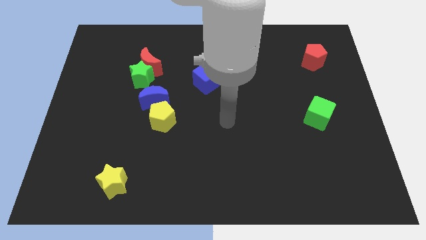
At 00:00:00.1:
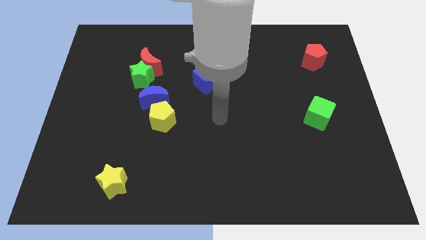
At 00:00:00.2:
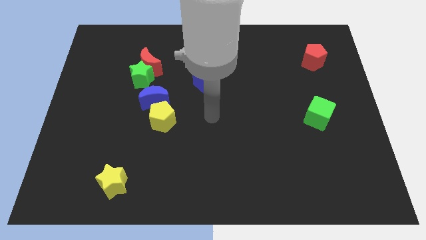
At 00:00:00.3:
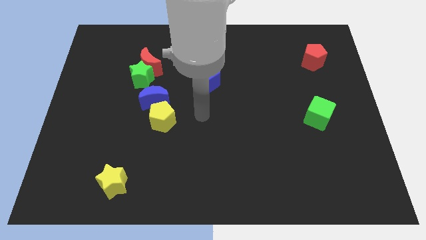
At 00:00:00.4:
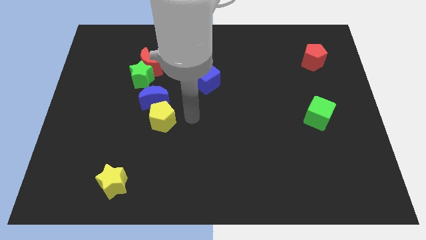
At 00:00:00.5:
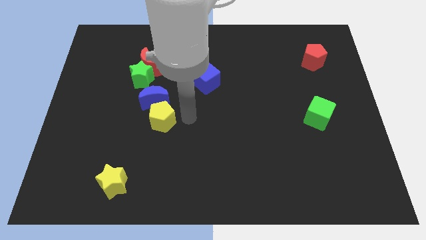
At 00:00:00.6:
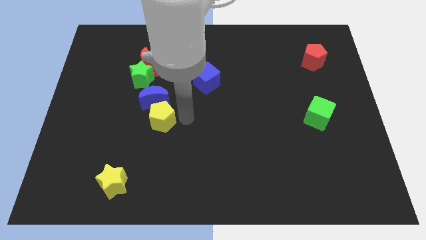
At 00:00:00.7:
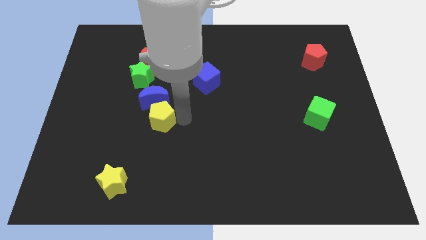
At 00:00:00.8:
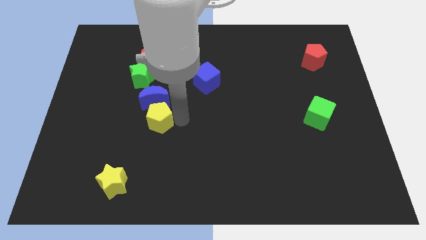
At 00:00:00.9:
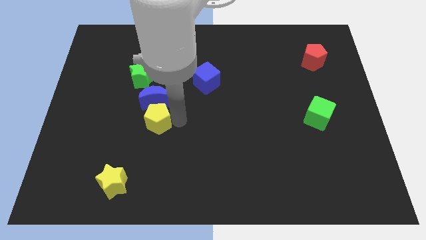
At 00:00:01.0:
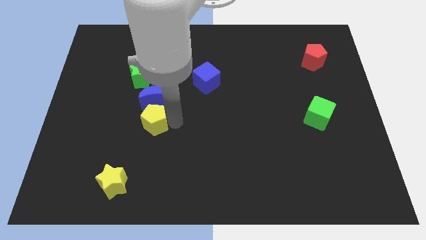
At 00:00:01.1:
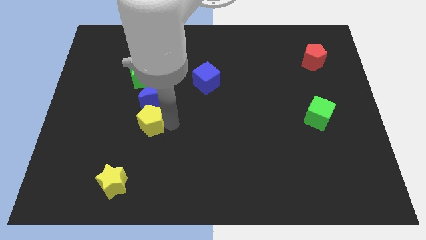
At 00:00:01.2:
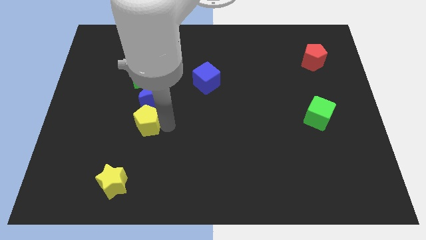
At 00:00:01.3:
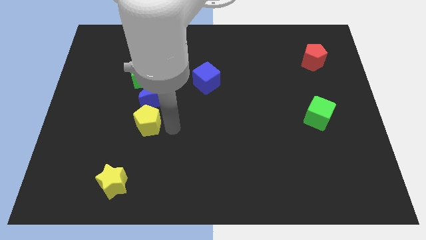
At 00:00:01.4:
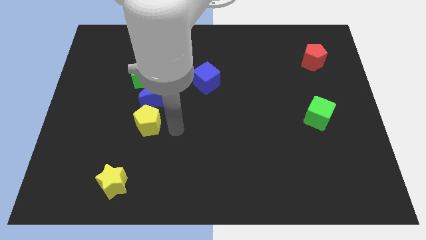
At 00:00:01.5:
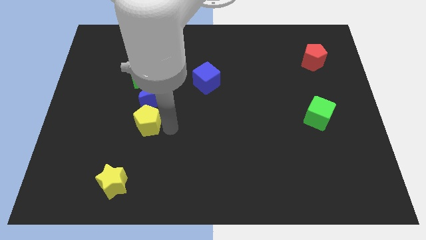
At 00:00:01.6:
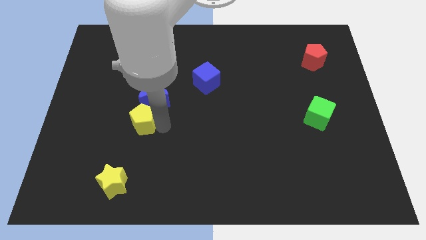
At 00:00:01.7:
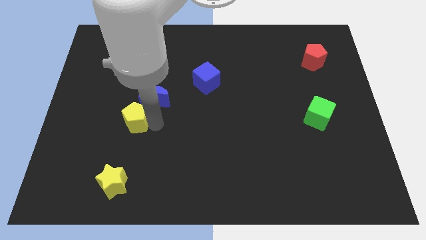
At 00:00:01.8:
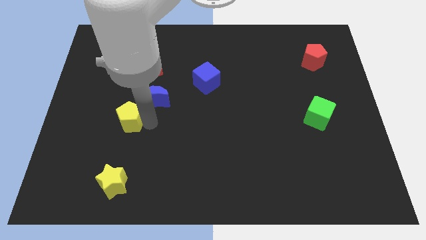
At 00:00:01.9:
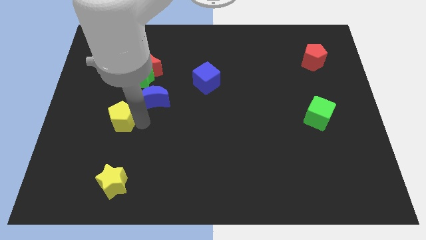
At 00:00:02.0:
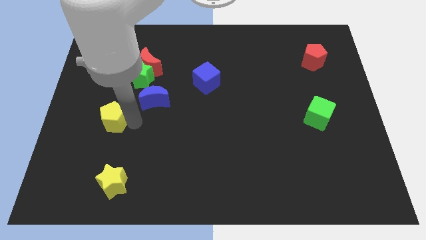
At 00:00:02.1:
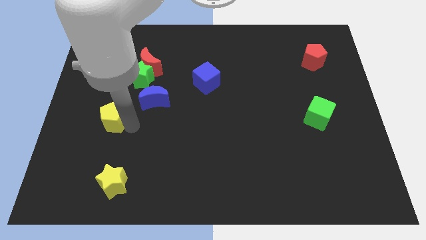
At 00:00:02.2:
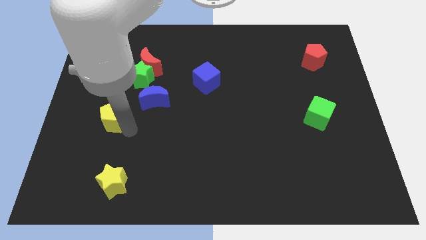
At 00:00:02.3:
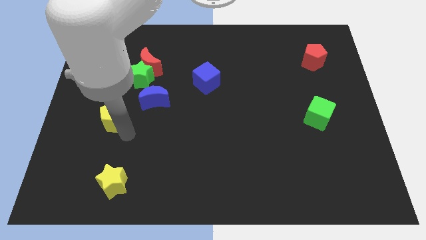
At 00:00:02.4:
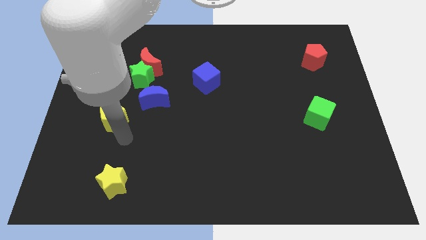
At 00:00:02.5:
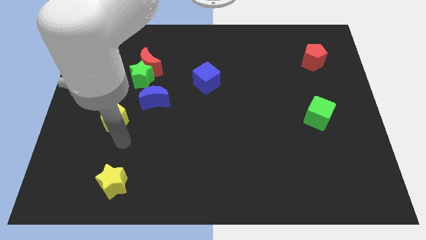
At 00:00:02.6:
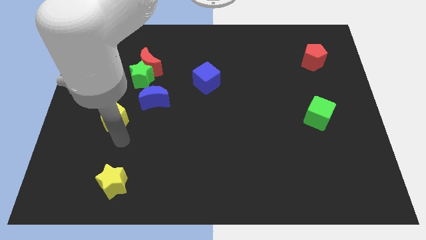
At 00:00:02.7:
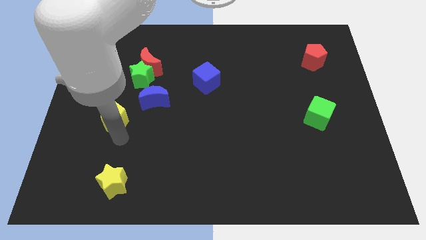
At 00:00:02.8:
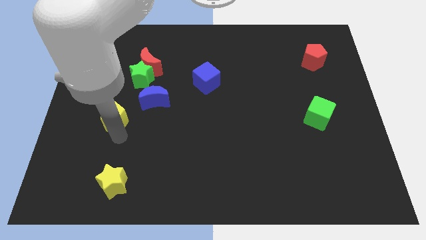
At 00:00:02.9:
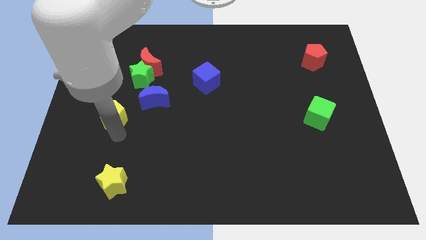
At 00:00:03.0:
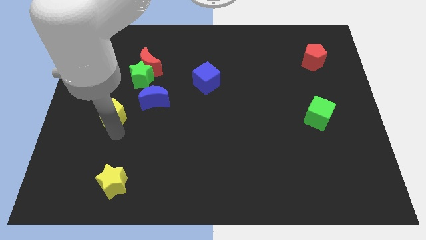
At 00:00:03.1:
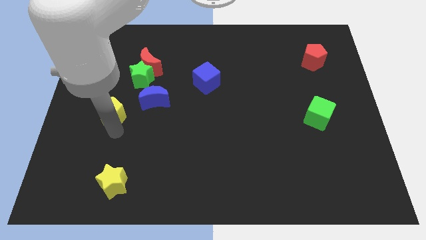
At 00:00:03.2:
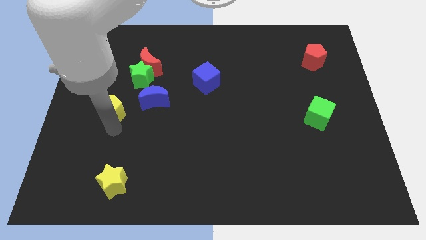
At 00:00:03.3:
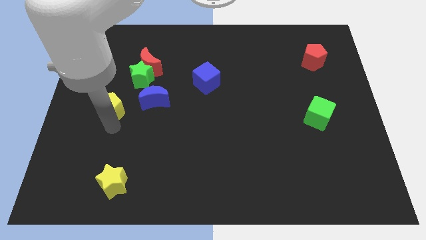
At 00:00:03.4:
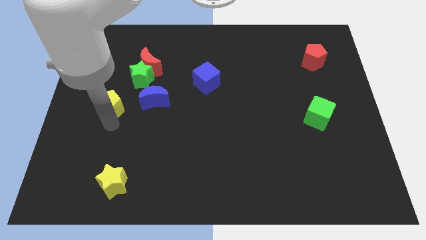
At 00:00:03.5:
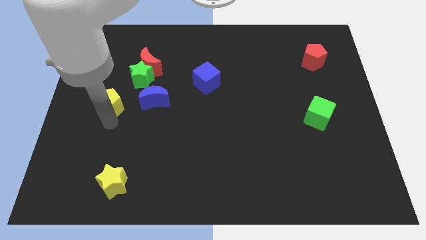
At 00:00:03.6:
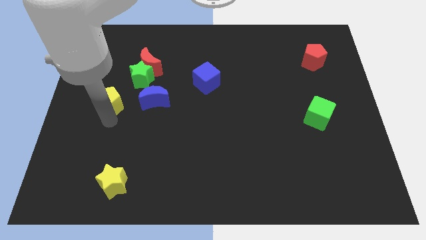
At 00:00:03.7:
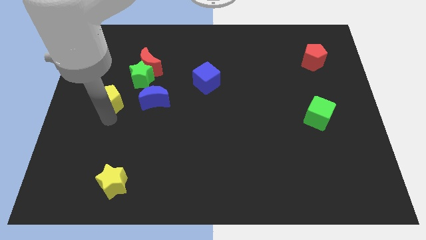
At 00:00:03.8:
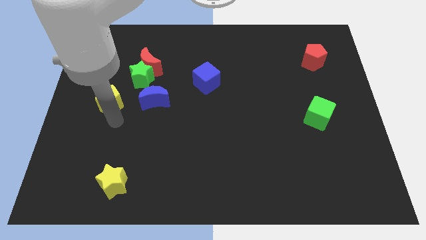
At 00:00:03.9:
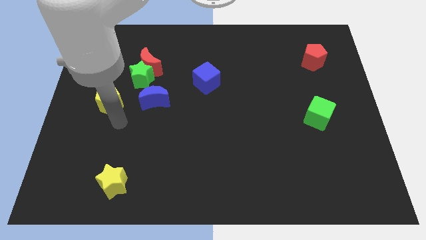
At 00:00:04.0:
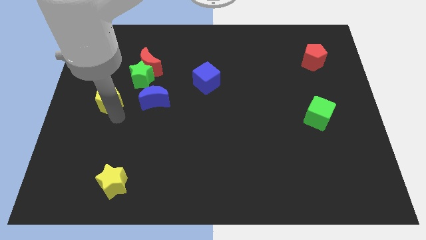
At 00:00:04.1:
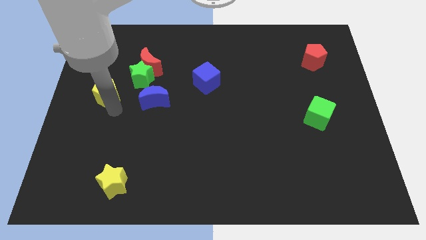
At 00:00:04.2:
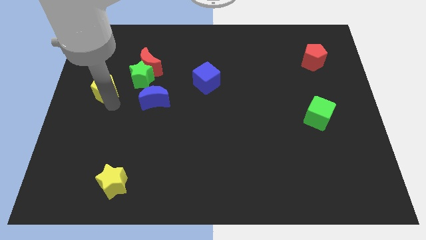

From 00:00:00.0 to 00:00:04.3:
move the yellow pentagon to the left of the green star

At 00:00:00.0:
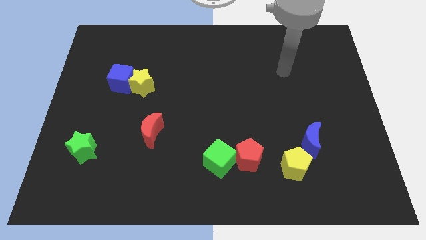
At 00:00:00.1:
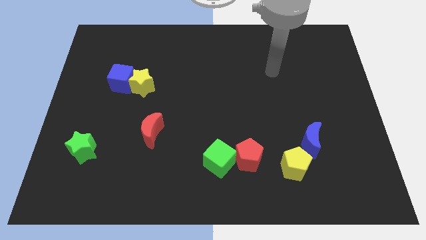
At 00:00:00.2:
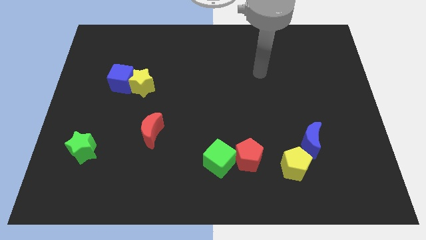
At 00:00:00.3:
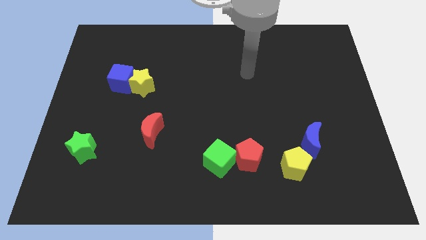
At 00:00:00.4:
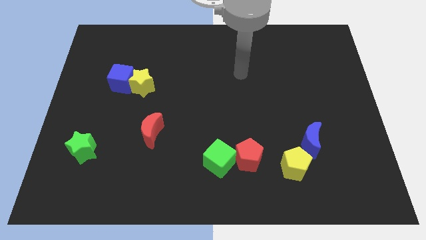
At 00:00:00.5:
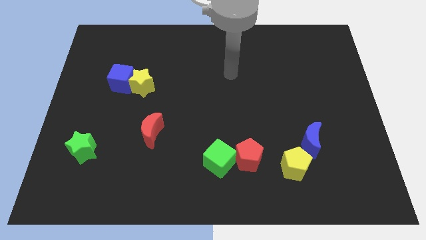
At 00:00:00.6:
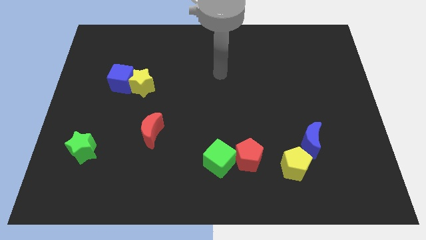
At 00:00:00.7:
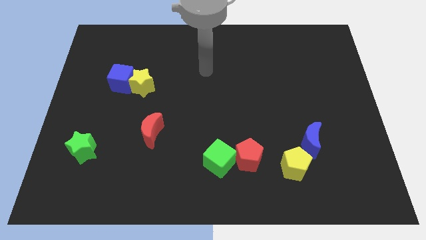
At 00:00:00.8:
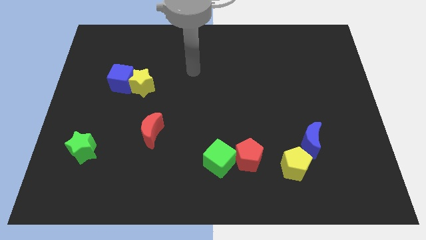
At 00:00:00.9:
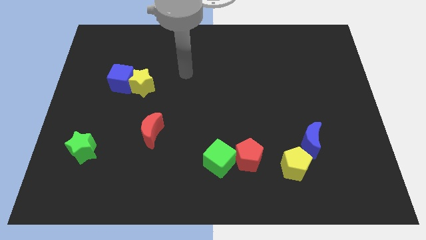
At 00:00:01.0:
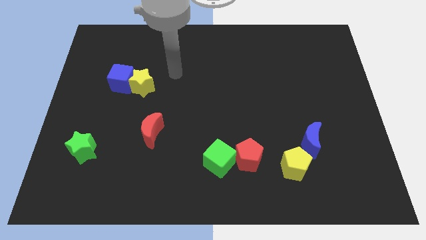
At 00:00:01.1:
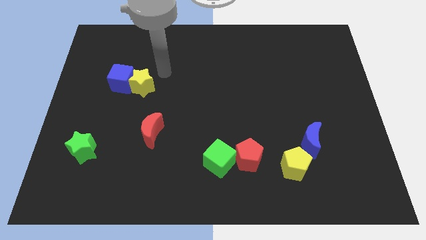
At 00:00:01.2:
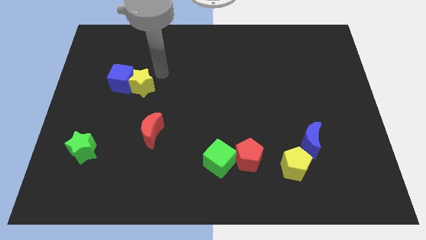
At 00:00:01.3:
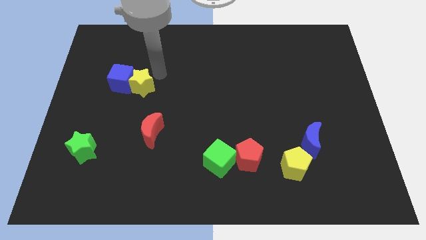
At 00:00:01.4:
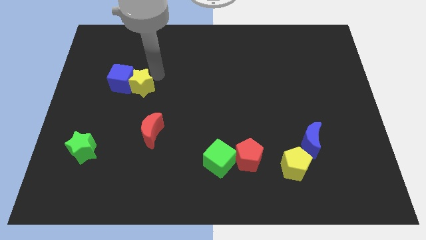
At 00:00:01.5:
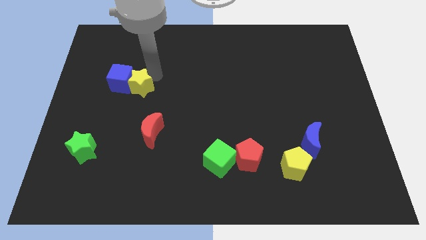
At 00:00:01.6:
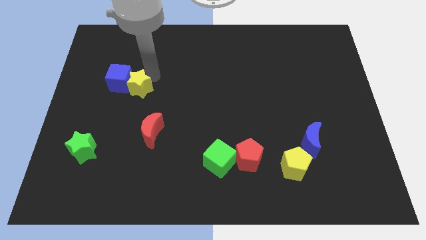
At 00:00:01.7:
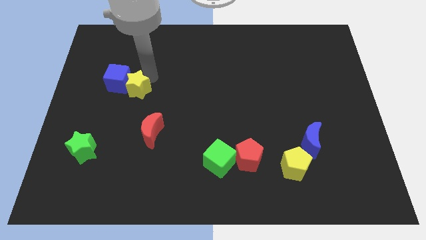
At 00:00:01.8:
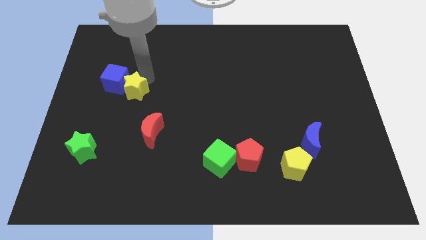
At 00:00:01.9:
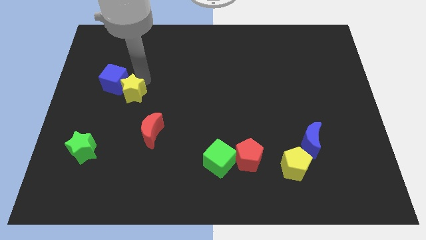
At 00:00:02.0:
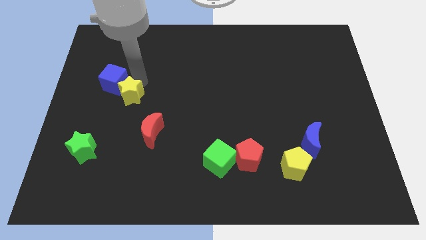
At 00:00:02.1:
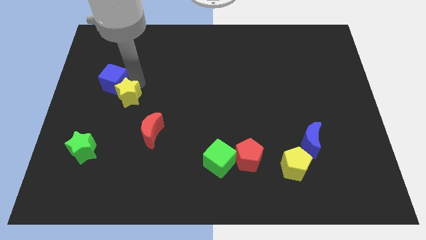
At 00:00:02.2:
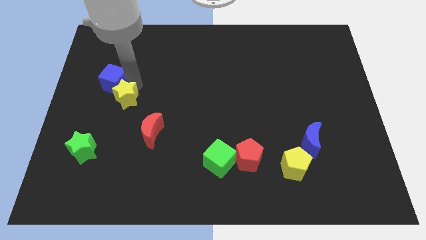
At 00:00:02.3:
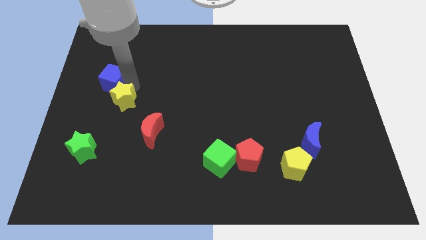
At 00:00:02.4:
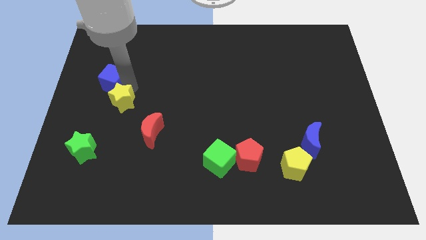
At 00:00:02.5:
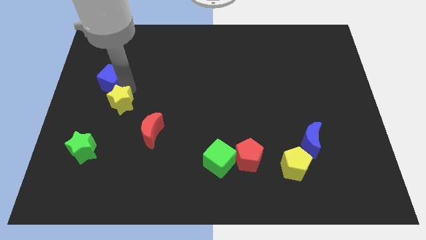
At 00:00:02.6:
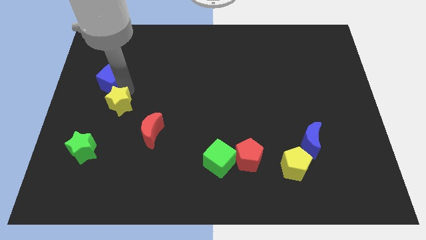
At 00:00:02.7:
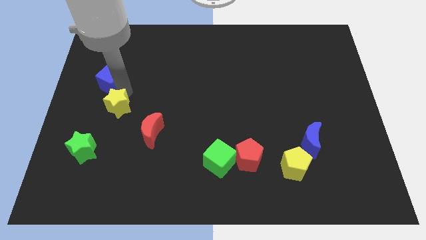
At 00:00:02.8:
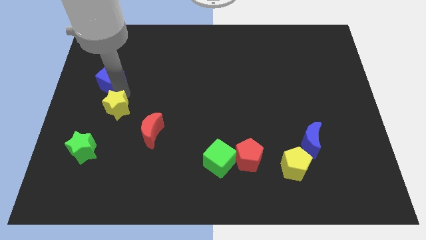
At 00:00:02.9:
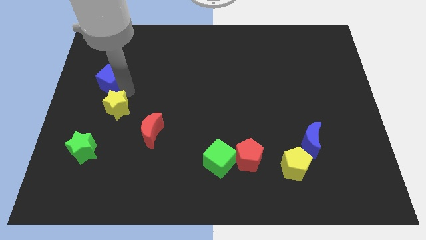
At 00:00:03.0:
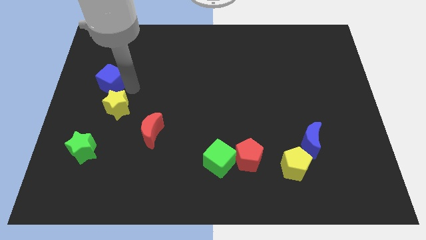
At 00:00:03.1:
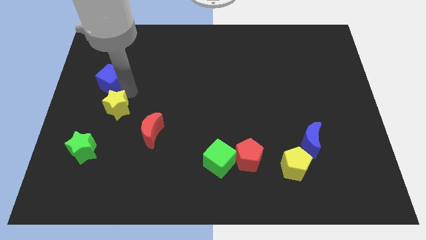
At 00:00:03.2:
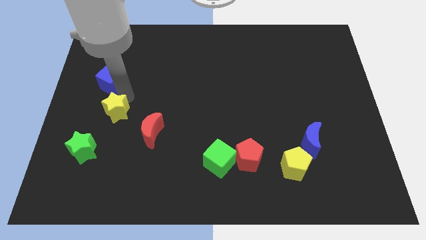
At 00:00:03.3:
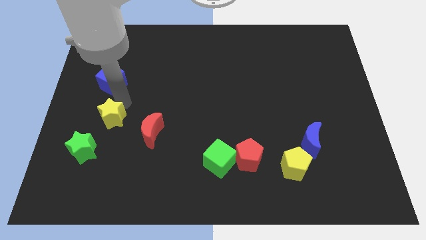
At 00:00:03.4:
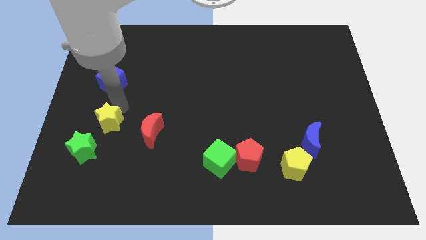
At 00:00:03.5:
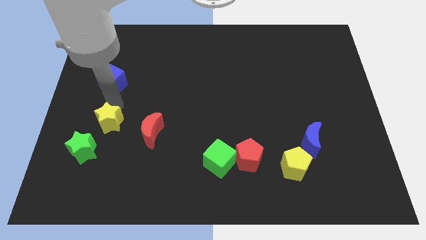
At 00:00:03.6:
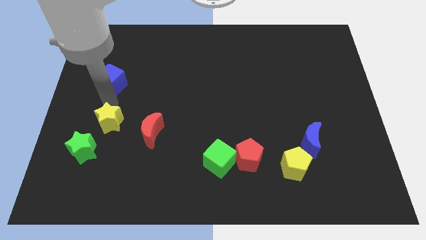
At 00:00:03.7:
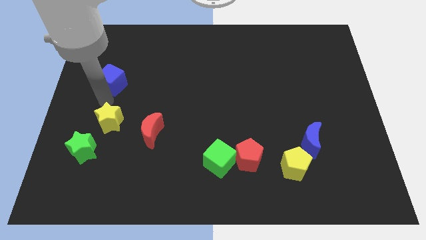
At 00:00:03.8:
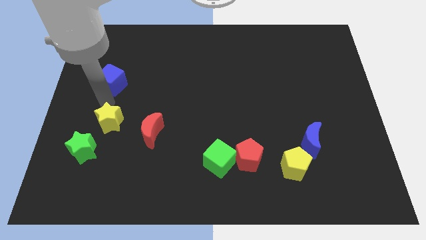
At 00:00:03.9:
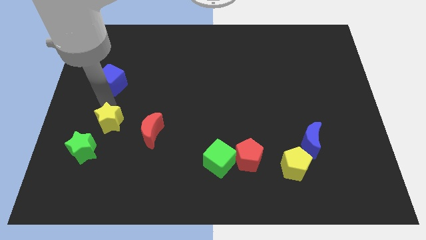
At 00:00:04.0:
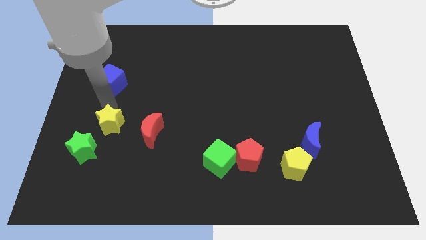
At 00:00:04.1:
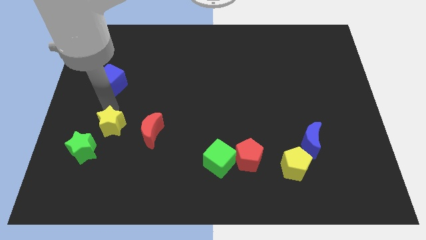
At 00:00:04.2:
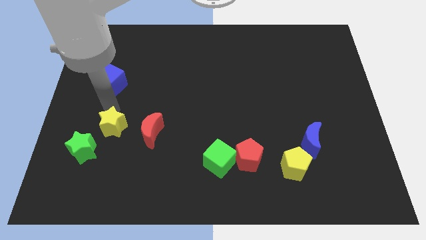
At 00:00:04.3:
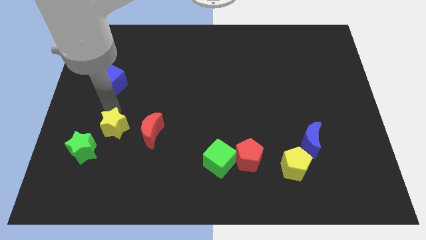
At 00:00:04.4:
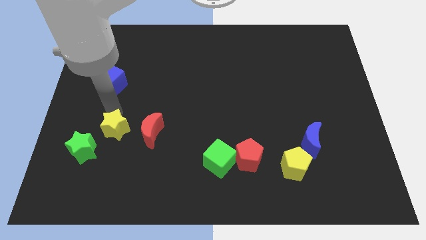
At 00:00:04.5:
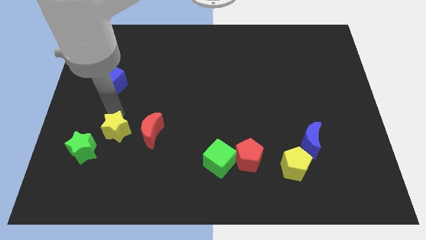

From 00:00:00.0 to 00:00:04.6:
slide the yellow star to the right of the green star
